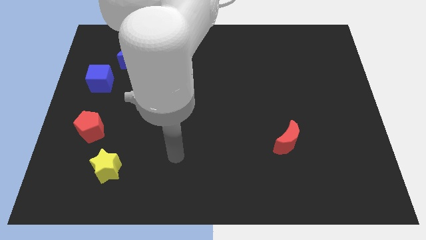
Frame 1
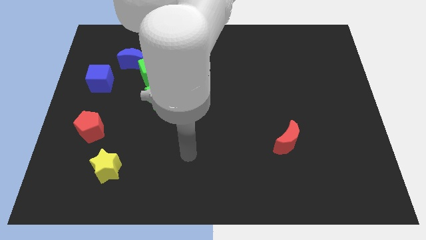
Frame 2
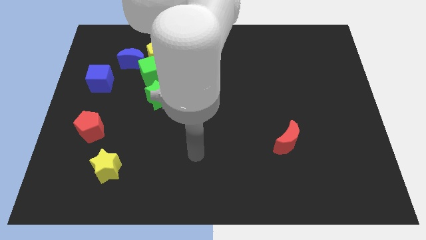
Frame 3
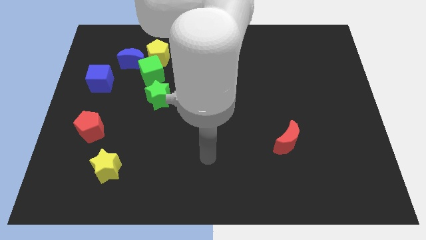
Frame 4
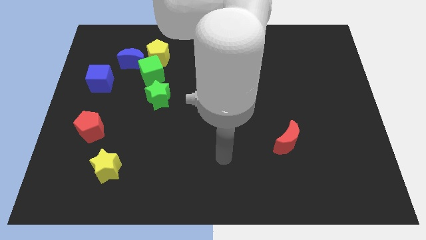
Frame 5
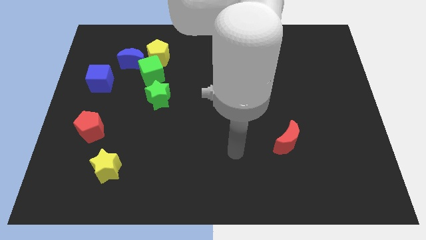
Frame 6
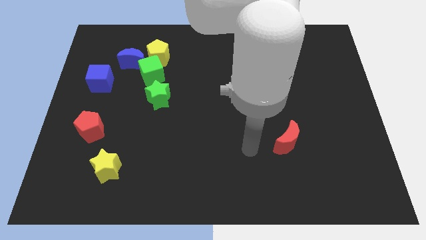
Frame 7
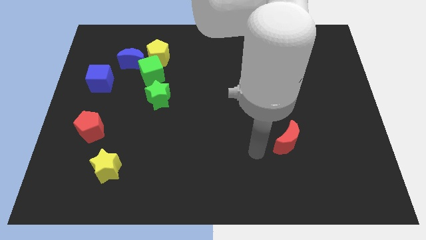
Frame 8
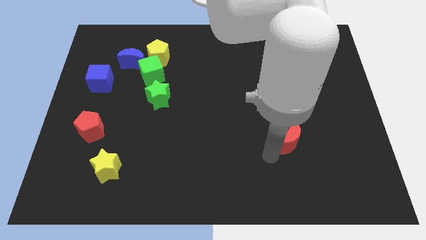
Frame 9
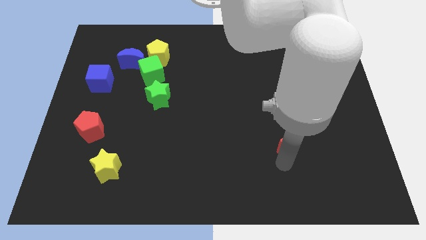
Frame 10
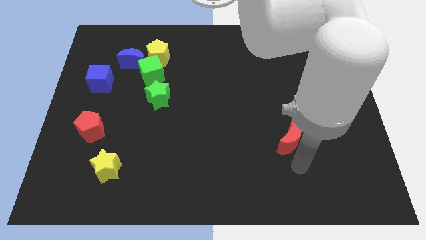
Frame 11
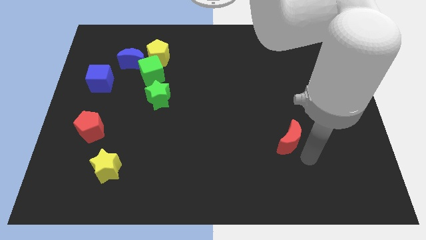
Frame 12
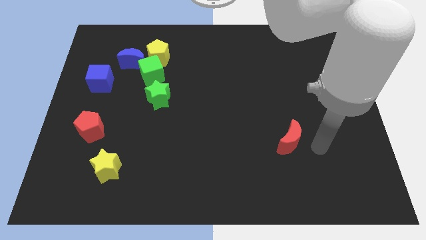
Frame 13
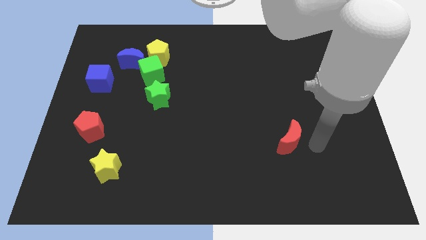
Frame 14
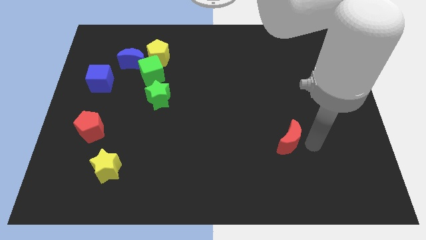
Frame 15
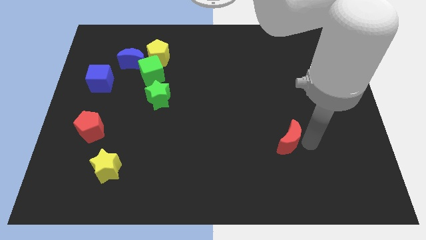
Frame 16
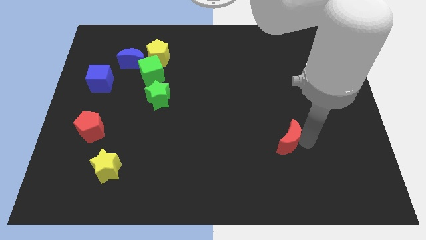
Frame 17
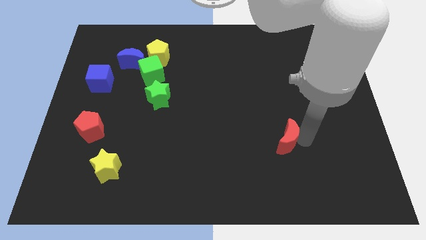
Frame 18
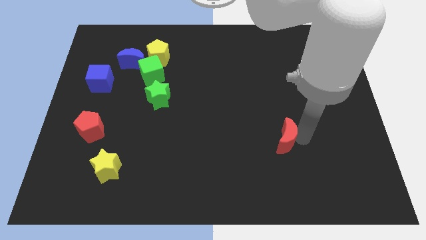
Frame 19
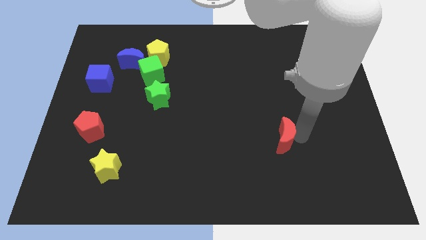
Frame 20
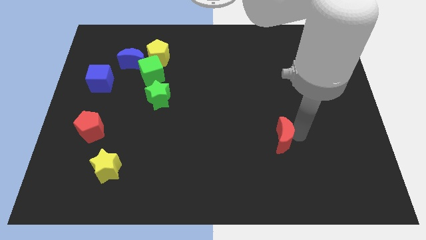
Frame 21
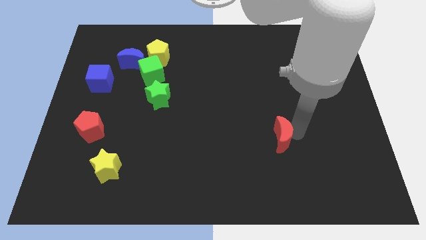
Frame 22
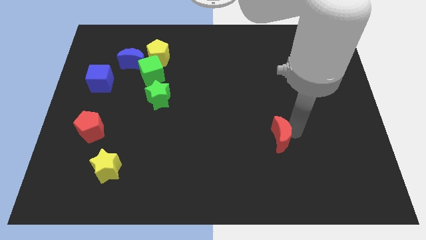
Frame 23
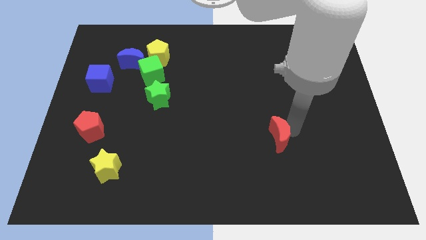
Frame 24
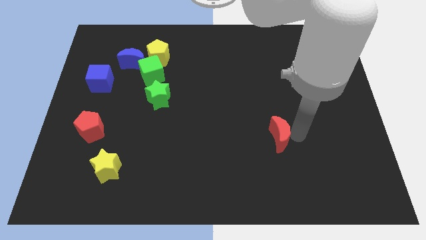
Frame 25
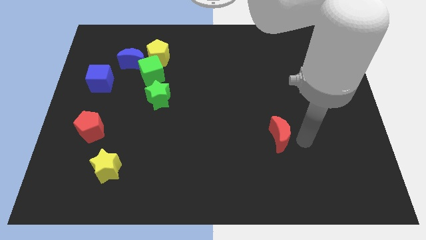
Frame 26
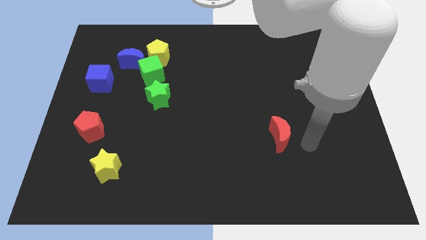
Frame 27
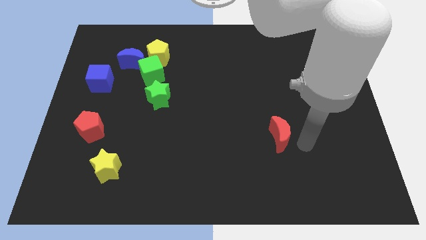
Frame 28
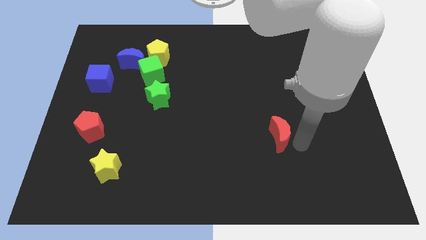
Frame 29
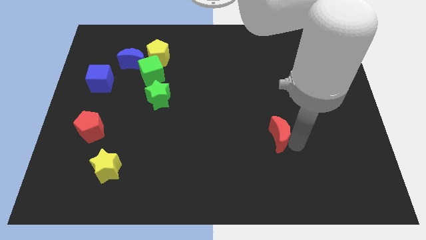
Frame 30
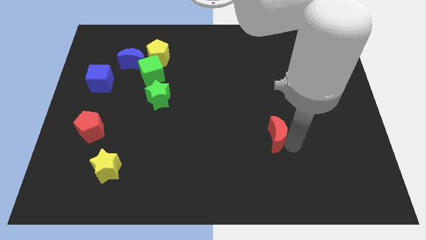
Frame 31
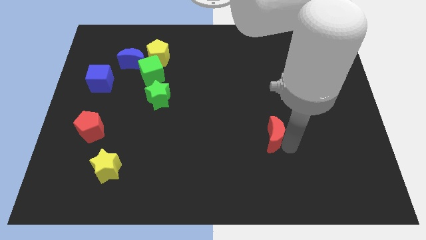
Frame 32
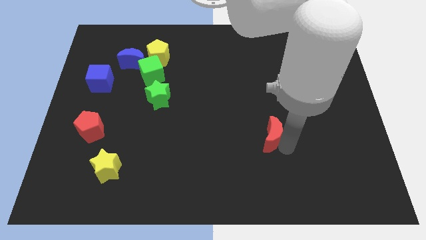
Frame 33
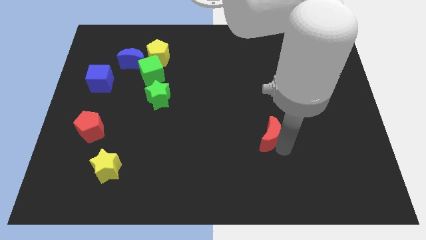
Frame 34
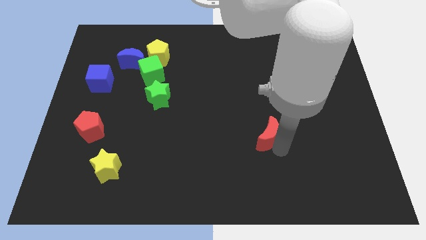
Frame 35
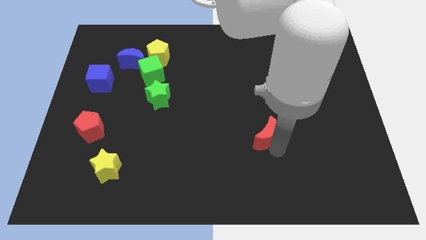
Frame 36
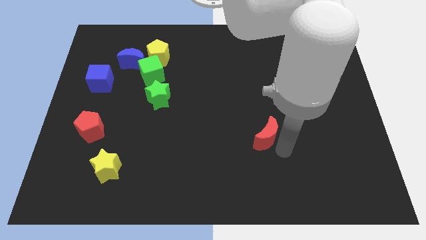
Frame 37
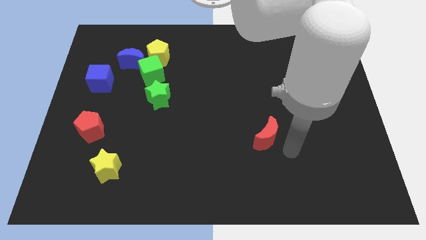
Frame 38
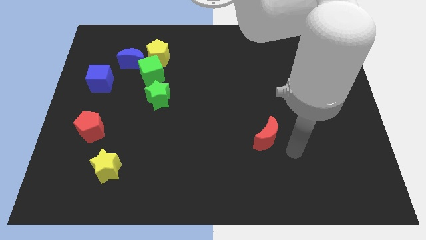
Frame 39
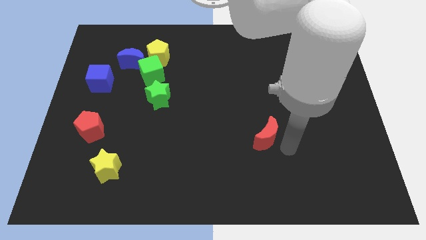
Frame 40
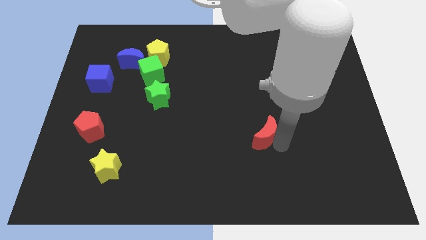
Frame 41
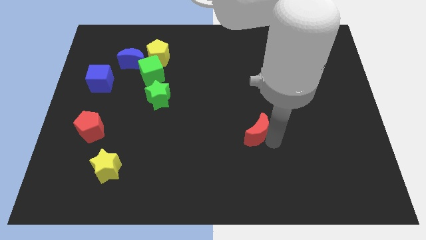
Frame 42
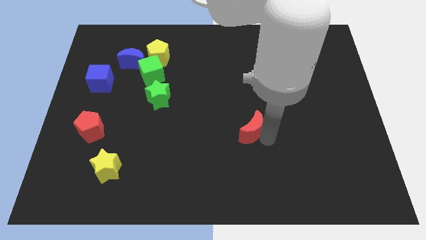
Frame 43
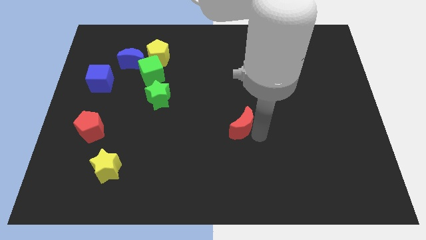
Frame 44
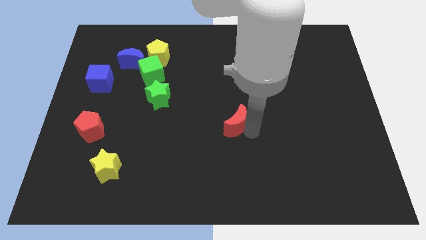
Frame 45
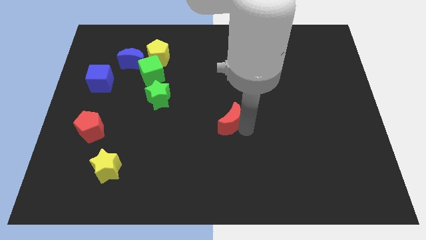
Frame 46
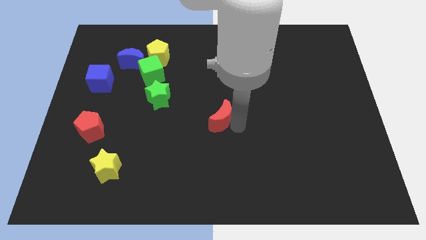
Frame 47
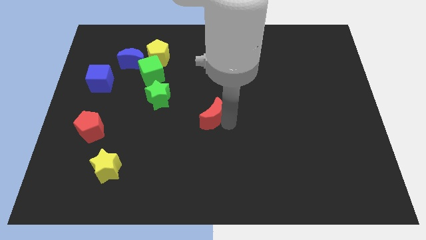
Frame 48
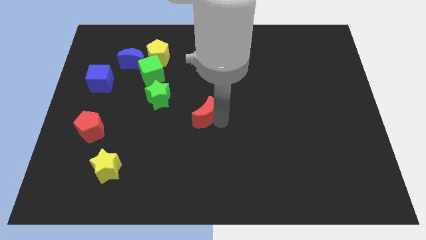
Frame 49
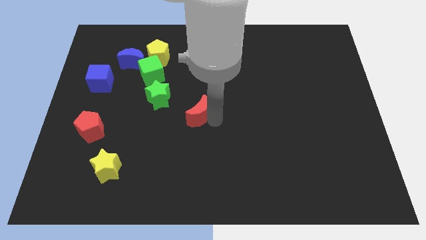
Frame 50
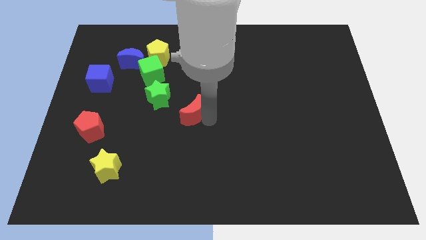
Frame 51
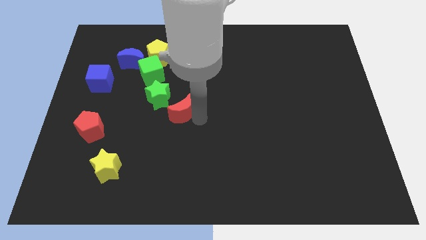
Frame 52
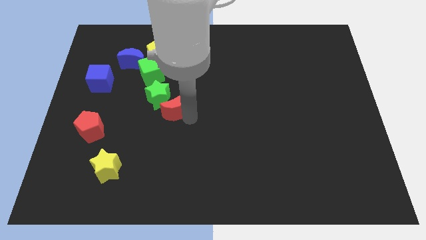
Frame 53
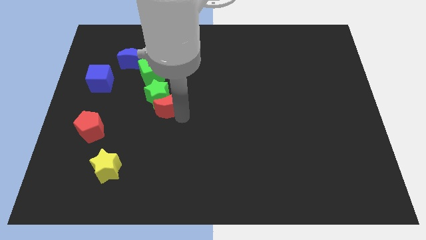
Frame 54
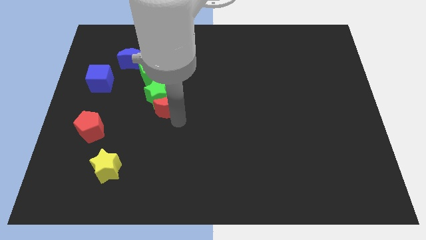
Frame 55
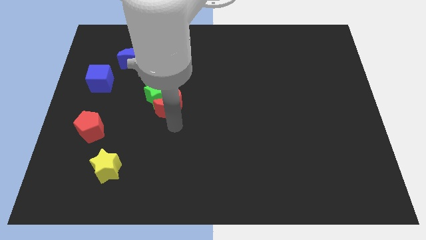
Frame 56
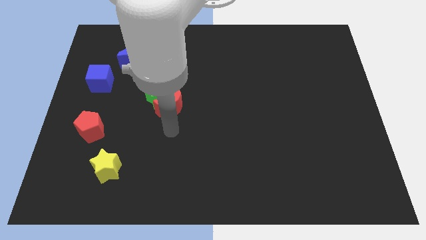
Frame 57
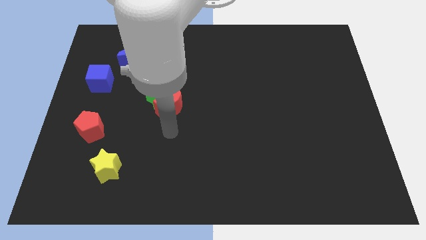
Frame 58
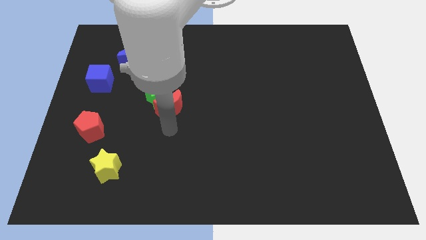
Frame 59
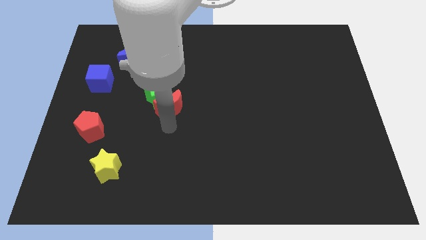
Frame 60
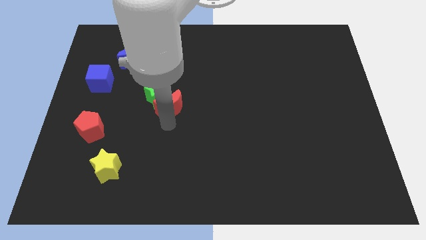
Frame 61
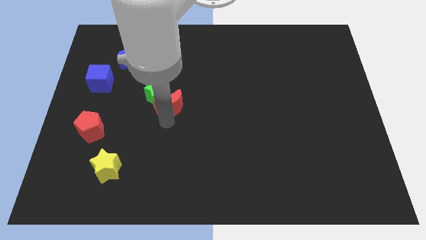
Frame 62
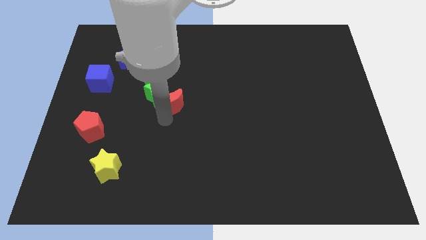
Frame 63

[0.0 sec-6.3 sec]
push the red moon to the bottom right of the green cube

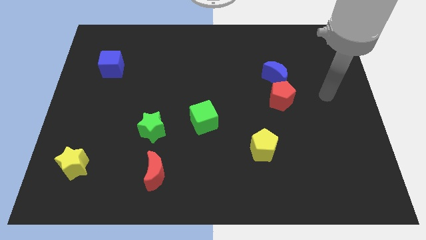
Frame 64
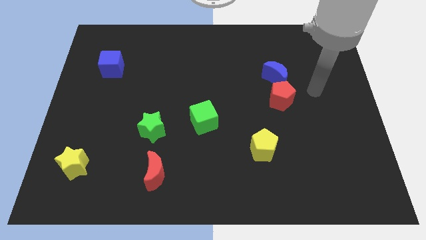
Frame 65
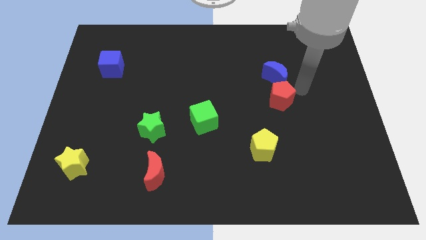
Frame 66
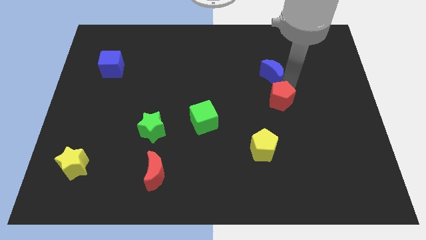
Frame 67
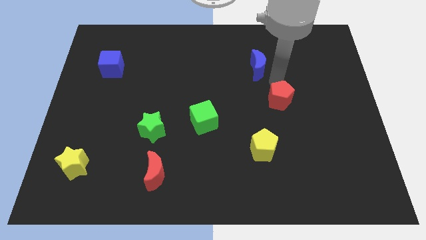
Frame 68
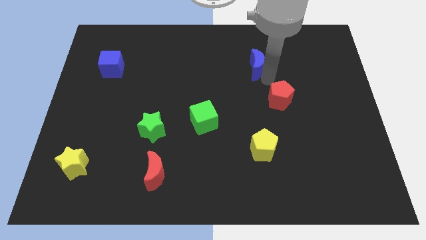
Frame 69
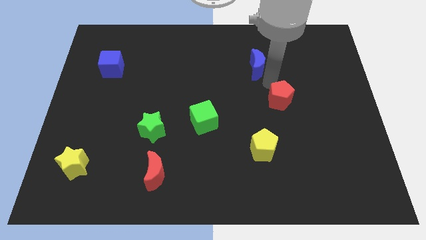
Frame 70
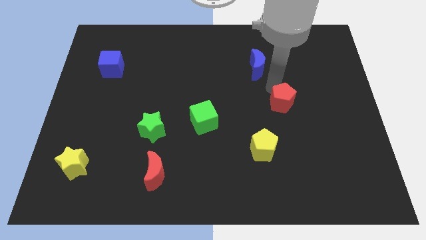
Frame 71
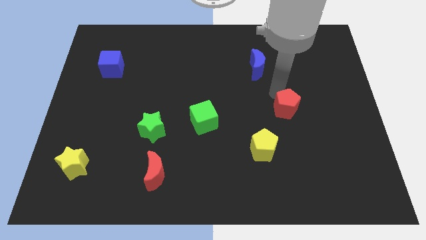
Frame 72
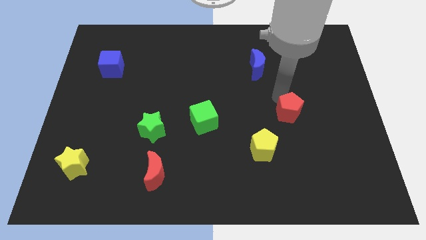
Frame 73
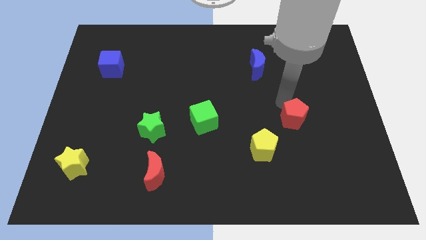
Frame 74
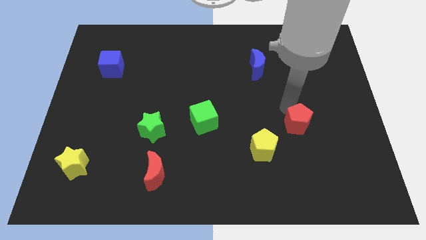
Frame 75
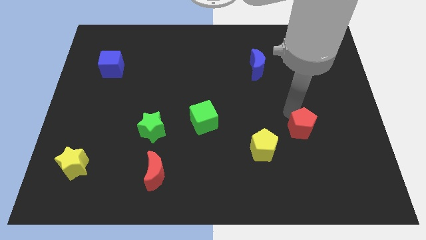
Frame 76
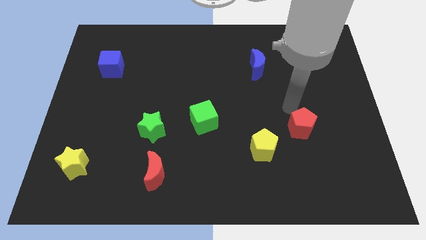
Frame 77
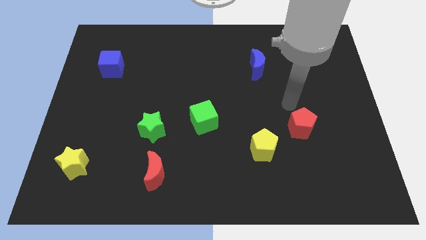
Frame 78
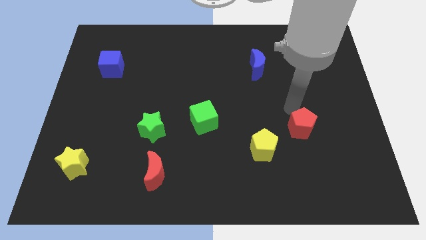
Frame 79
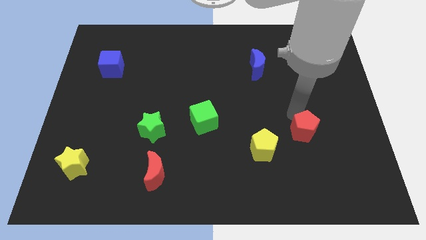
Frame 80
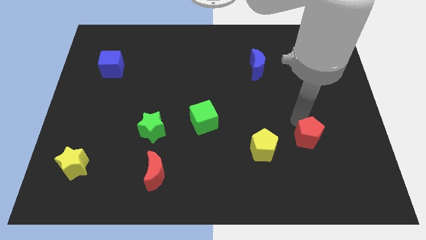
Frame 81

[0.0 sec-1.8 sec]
slide the red pentagon to the right of the yellow pentagon

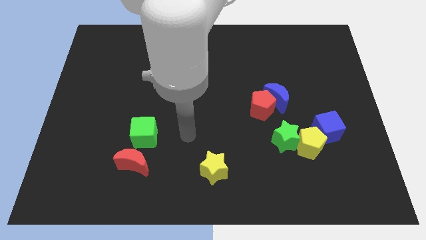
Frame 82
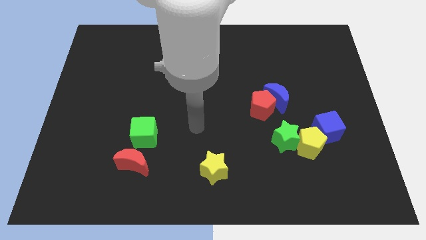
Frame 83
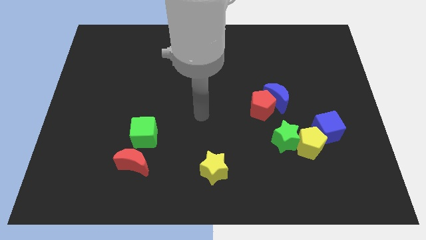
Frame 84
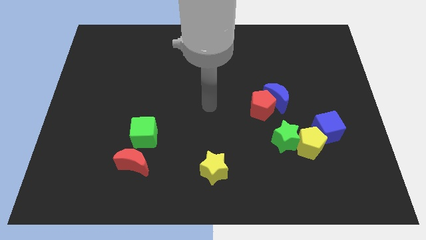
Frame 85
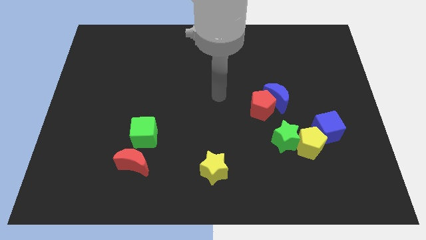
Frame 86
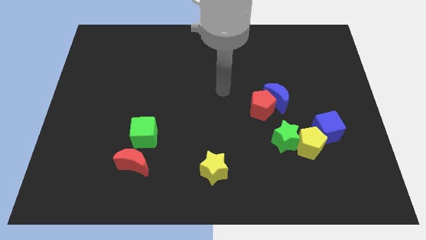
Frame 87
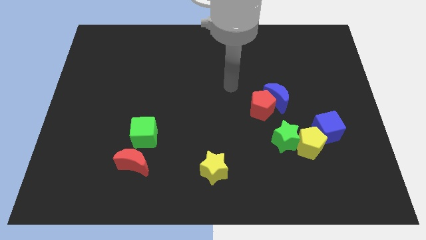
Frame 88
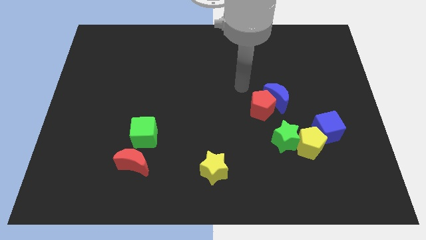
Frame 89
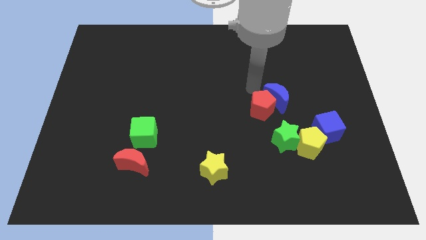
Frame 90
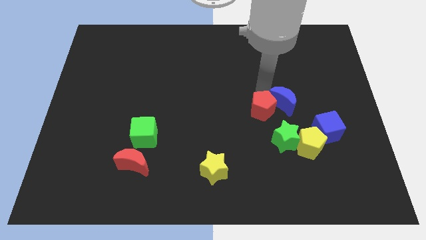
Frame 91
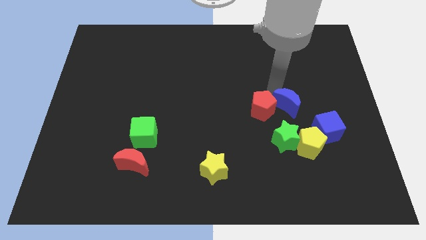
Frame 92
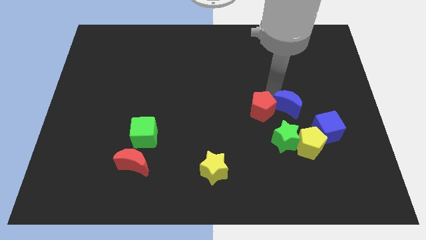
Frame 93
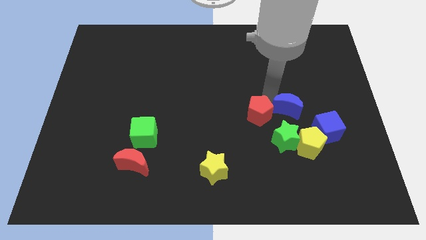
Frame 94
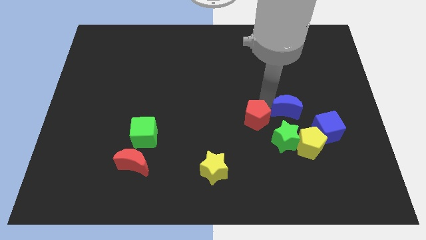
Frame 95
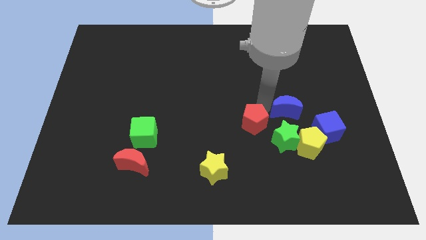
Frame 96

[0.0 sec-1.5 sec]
slide the red pentagon just left of the green star
